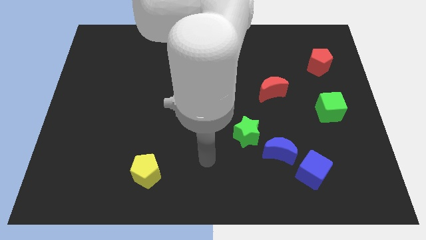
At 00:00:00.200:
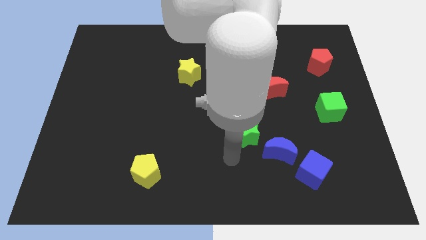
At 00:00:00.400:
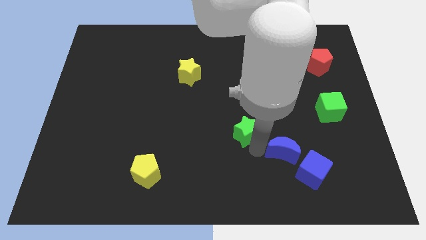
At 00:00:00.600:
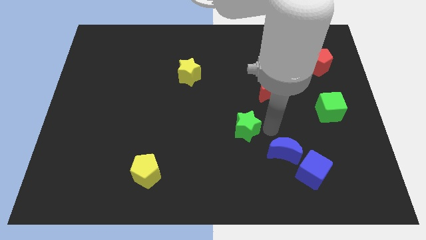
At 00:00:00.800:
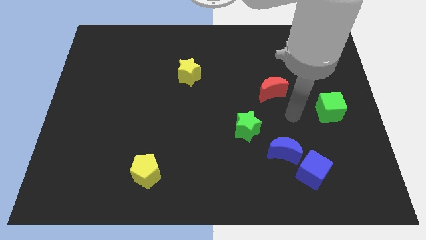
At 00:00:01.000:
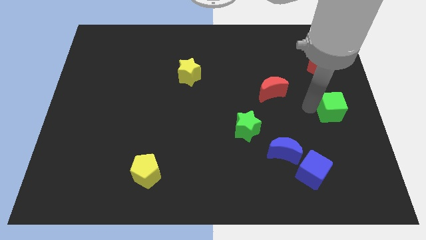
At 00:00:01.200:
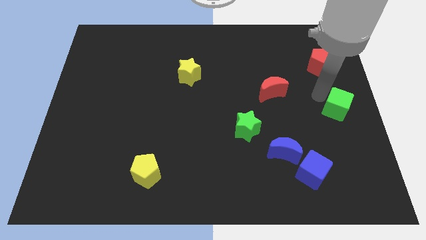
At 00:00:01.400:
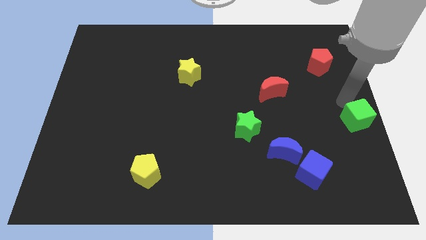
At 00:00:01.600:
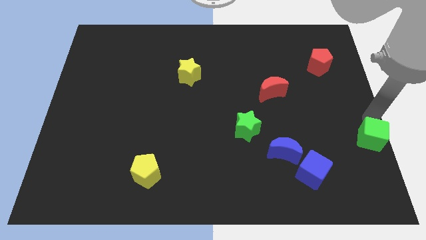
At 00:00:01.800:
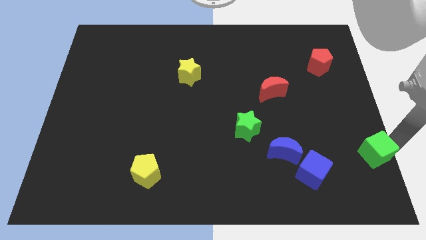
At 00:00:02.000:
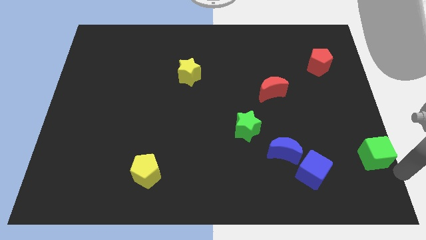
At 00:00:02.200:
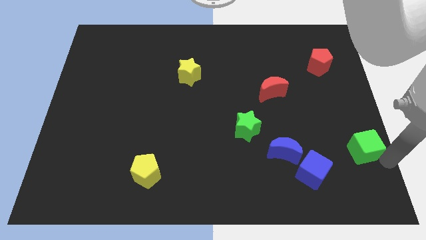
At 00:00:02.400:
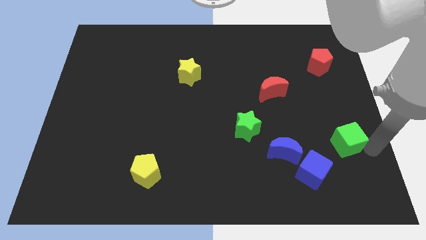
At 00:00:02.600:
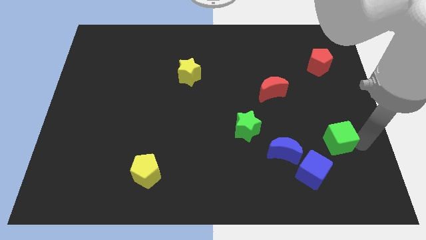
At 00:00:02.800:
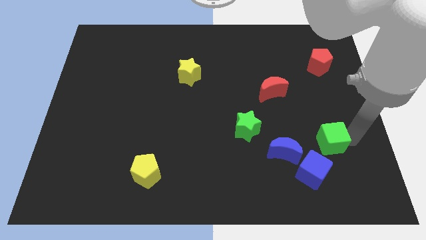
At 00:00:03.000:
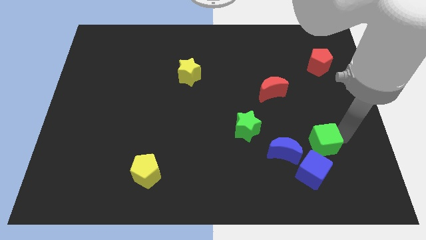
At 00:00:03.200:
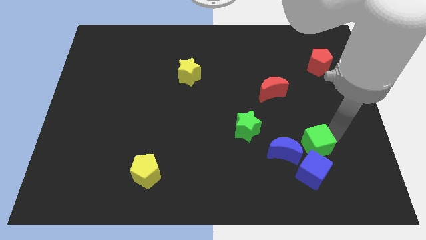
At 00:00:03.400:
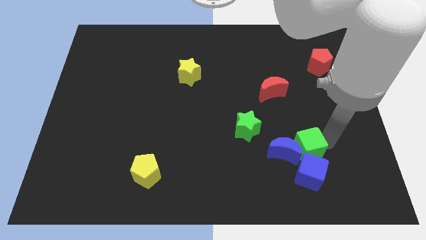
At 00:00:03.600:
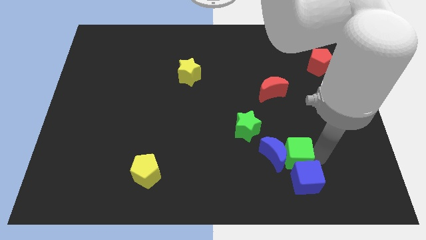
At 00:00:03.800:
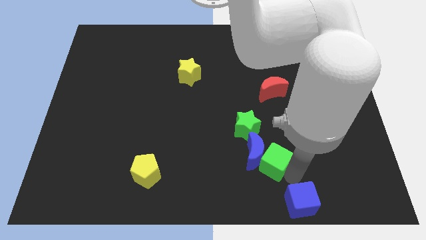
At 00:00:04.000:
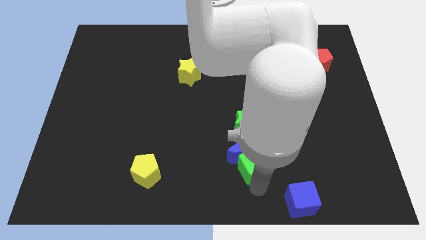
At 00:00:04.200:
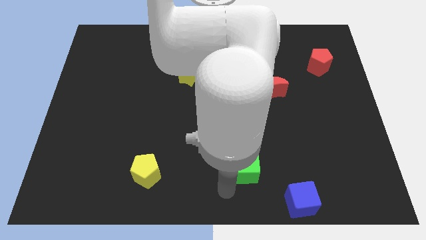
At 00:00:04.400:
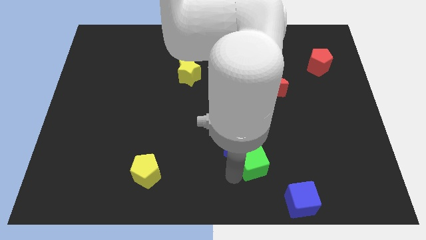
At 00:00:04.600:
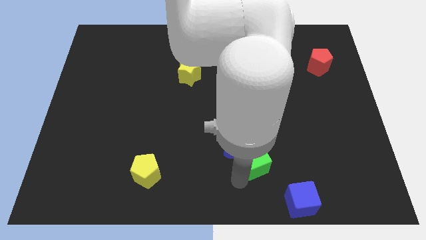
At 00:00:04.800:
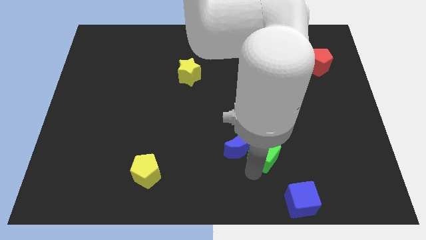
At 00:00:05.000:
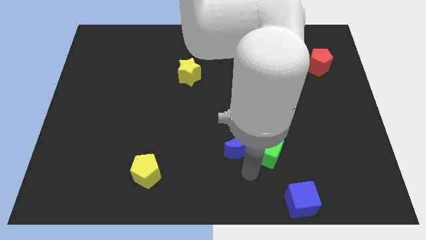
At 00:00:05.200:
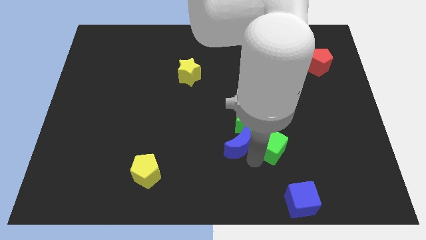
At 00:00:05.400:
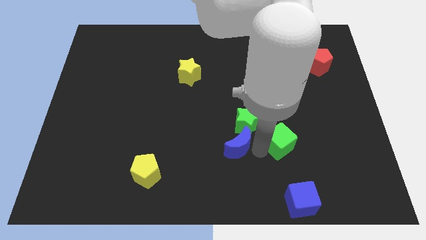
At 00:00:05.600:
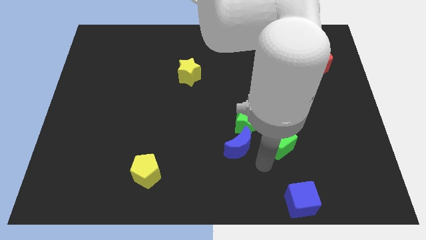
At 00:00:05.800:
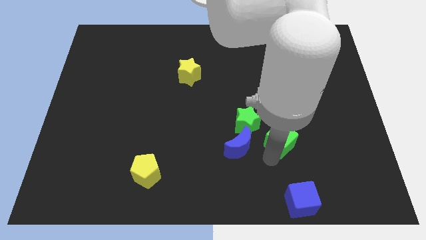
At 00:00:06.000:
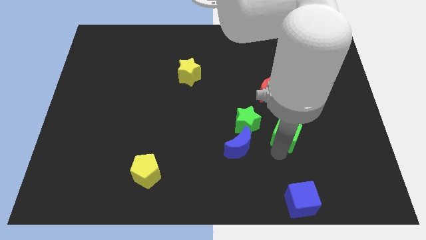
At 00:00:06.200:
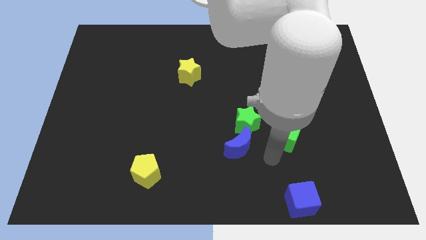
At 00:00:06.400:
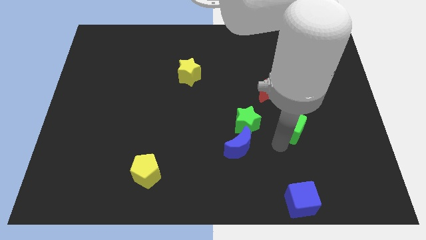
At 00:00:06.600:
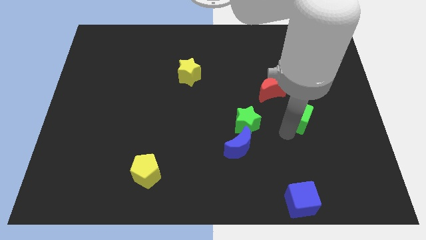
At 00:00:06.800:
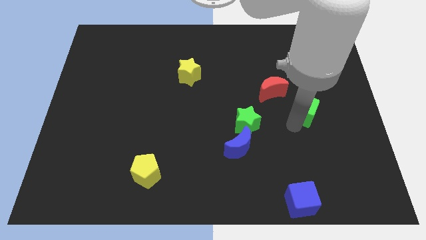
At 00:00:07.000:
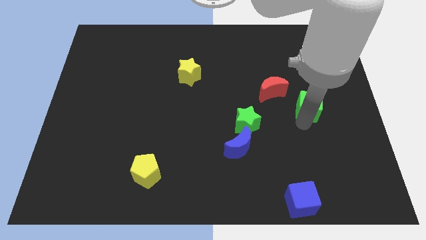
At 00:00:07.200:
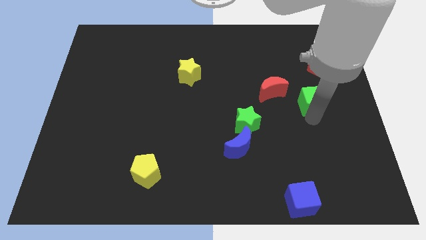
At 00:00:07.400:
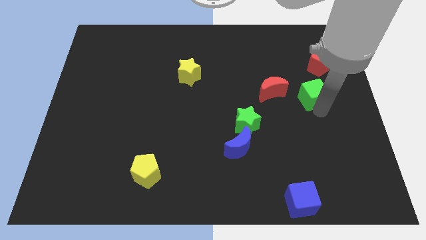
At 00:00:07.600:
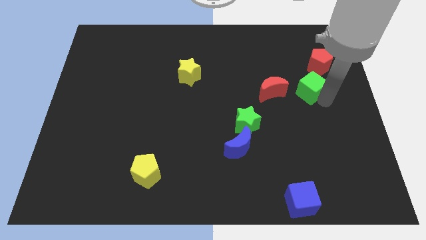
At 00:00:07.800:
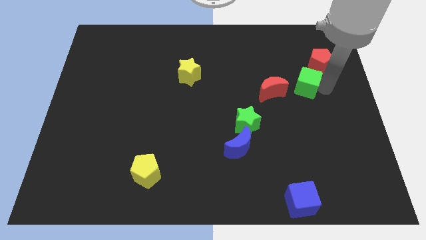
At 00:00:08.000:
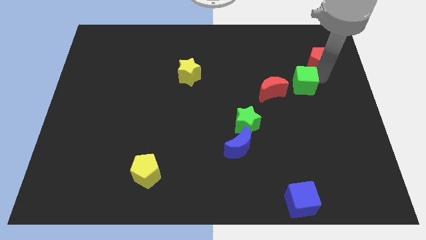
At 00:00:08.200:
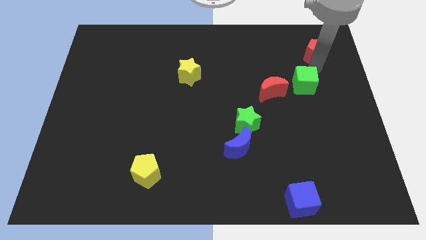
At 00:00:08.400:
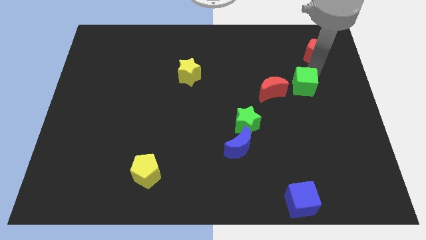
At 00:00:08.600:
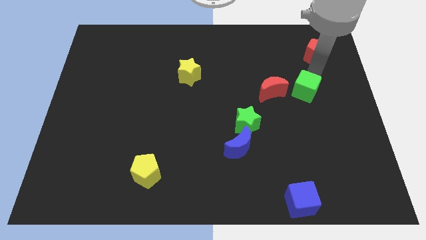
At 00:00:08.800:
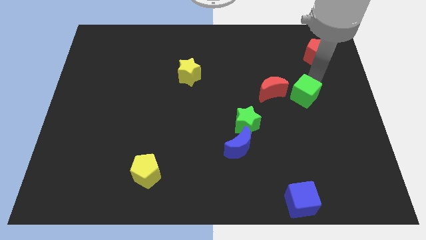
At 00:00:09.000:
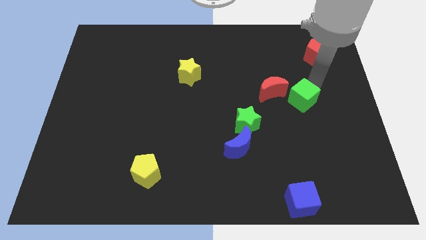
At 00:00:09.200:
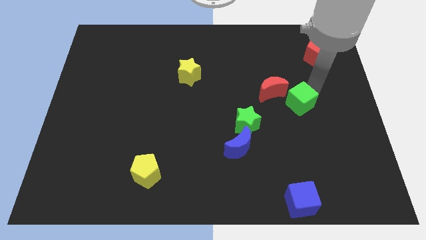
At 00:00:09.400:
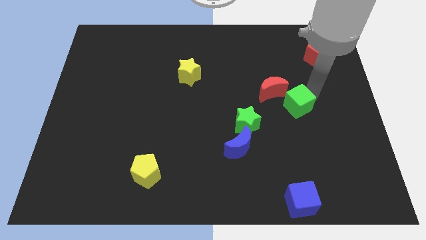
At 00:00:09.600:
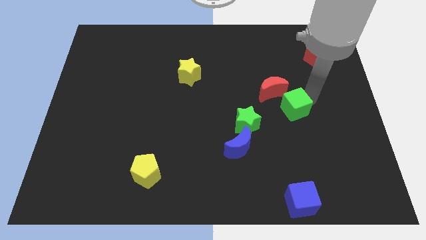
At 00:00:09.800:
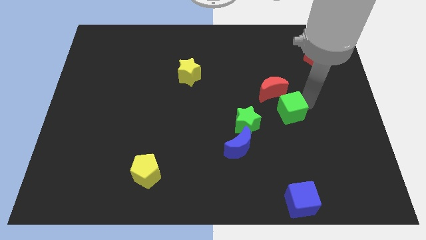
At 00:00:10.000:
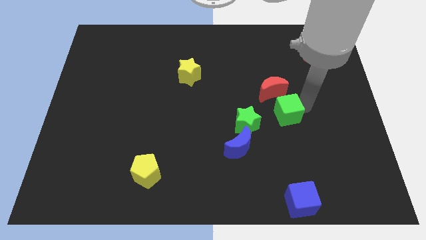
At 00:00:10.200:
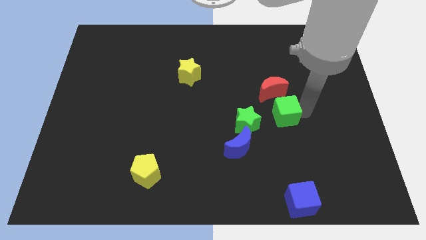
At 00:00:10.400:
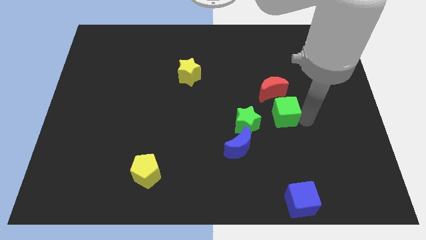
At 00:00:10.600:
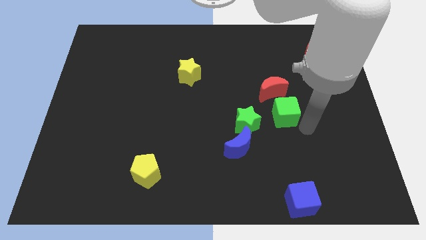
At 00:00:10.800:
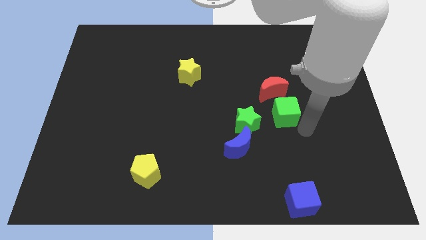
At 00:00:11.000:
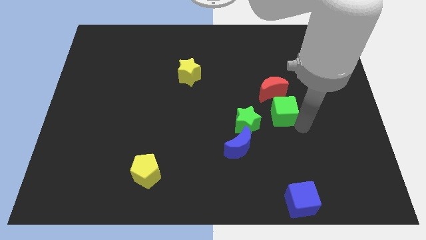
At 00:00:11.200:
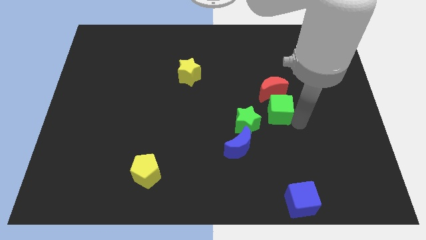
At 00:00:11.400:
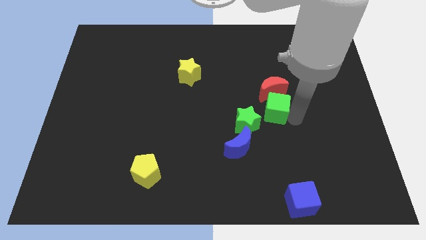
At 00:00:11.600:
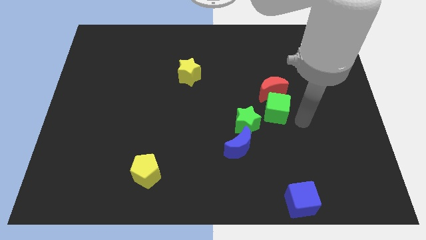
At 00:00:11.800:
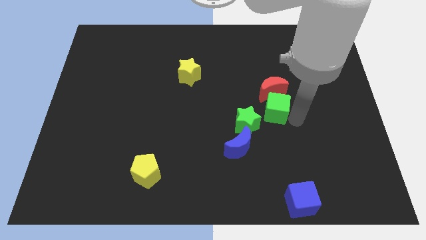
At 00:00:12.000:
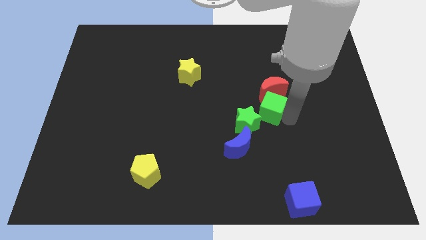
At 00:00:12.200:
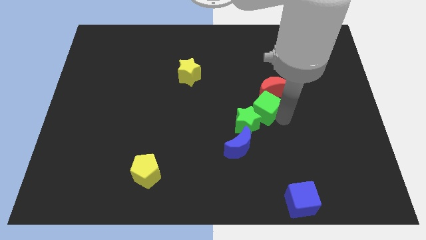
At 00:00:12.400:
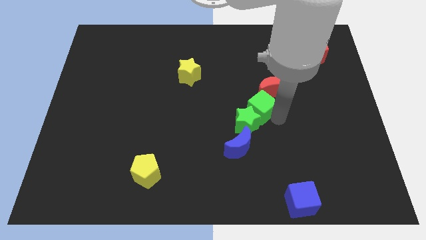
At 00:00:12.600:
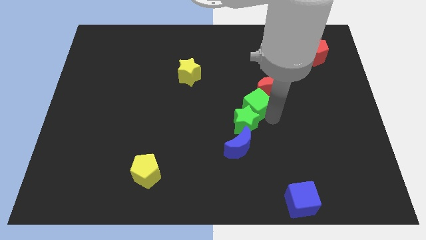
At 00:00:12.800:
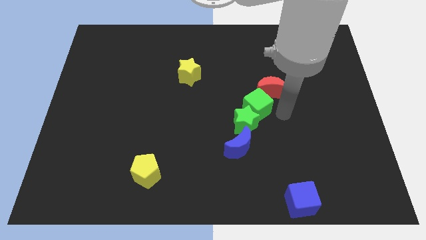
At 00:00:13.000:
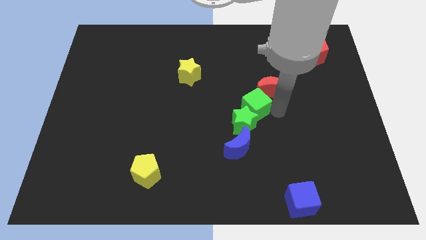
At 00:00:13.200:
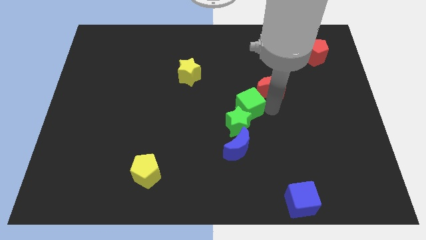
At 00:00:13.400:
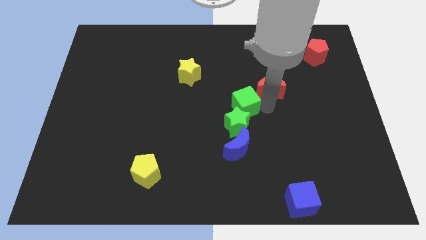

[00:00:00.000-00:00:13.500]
push the green cube left

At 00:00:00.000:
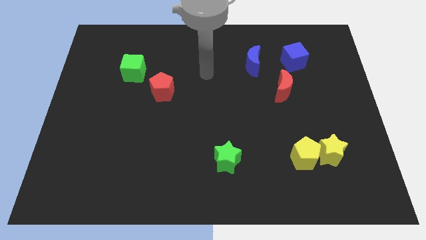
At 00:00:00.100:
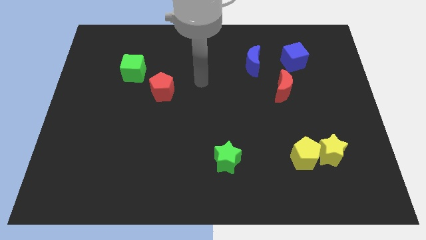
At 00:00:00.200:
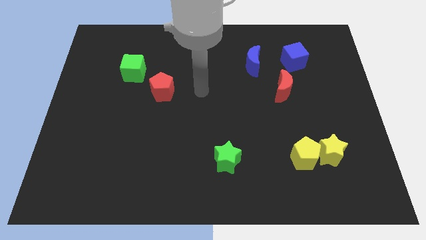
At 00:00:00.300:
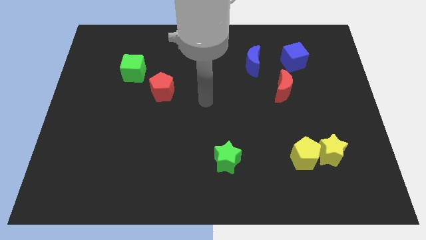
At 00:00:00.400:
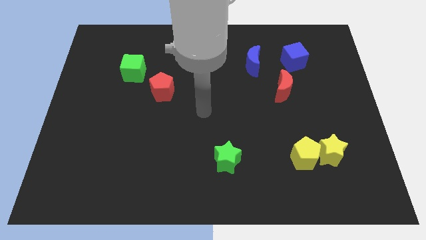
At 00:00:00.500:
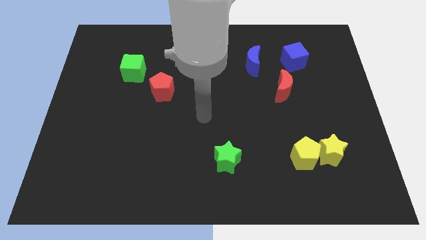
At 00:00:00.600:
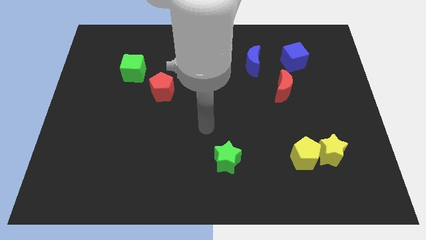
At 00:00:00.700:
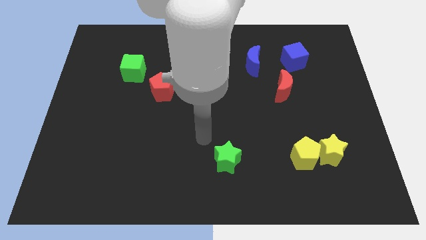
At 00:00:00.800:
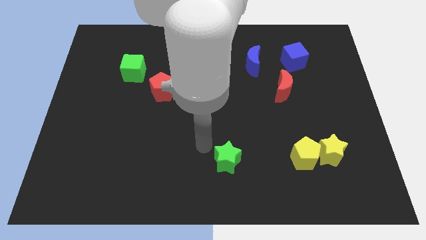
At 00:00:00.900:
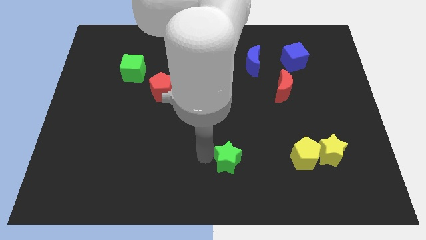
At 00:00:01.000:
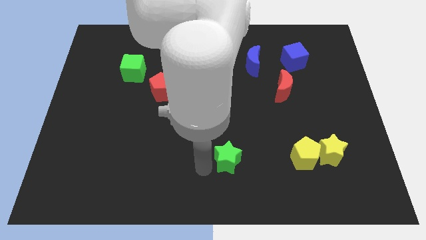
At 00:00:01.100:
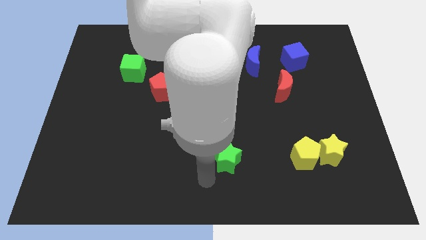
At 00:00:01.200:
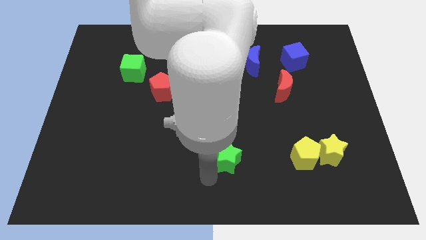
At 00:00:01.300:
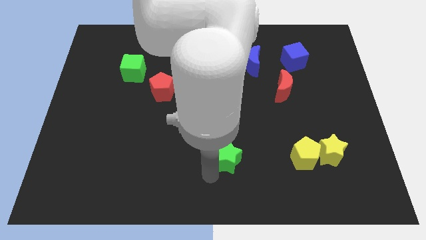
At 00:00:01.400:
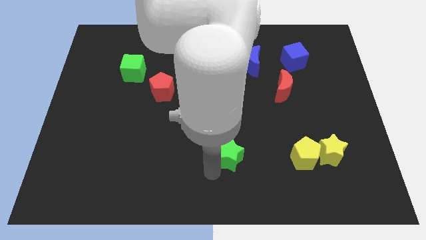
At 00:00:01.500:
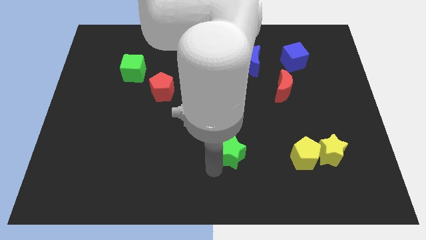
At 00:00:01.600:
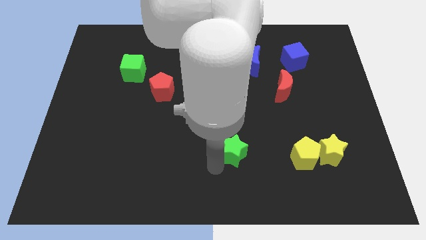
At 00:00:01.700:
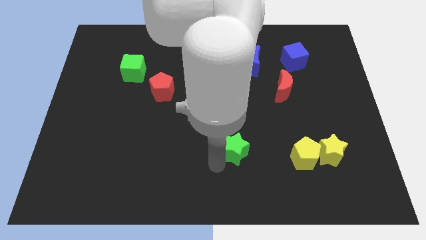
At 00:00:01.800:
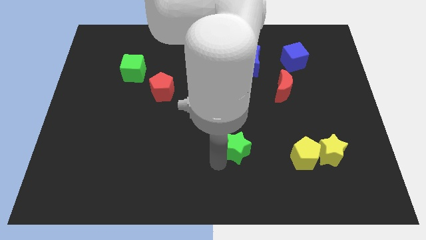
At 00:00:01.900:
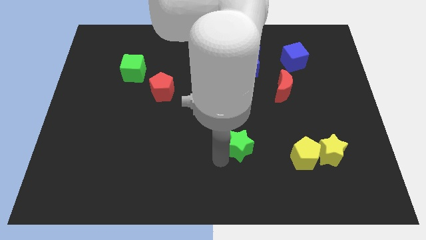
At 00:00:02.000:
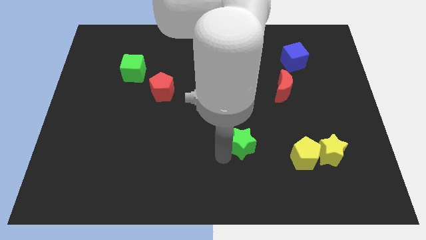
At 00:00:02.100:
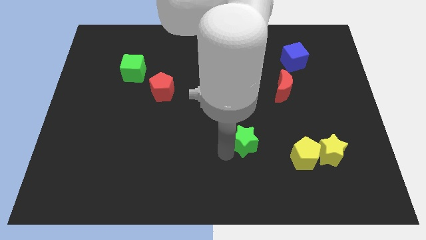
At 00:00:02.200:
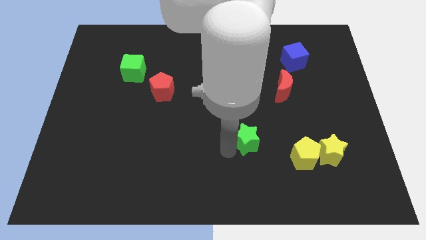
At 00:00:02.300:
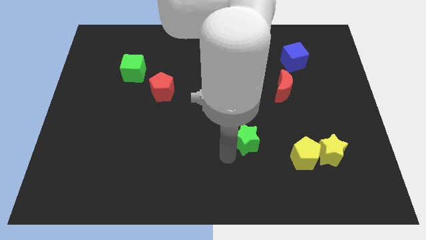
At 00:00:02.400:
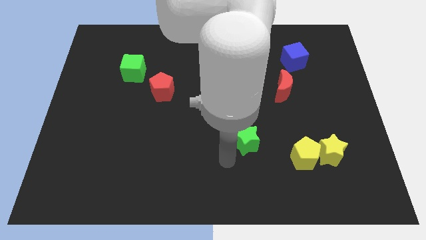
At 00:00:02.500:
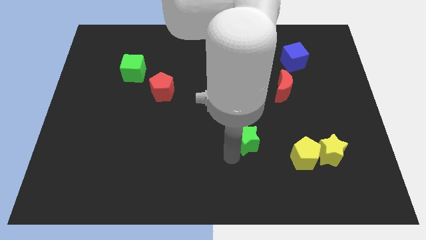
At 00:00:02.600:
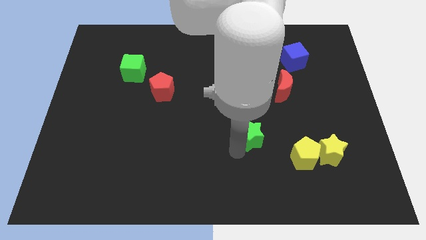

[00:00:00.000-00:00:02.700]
move the green star a little bit up and to the right diagonally
